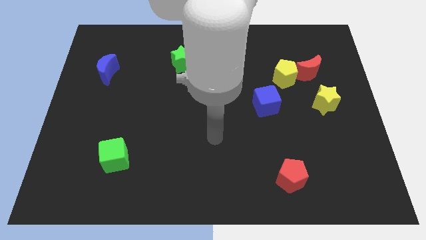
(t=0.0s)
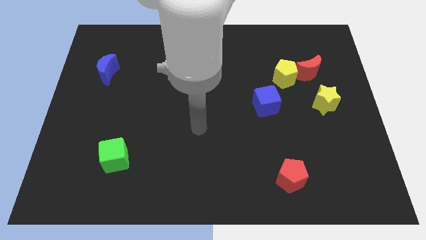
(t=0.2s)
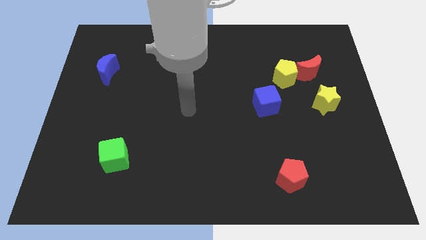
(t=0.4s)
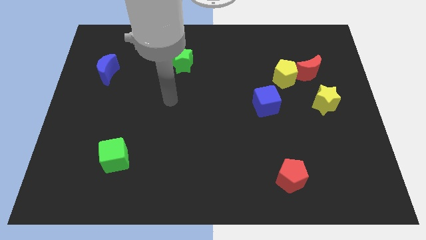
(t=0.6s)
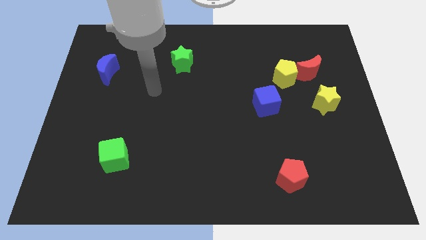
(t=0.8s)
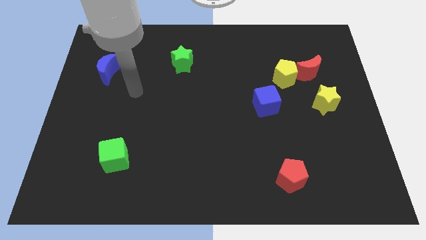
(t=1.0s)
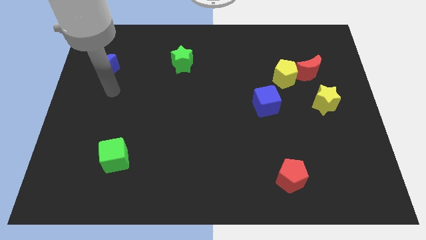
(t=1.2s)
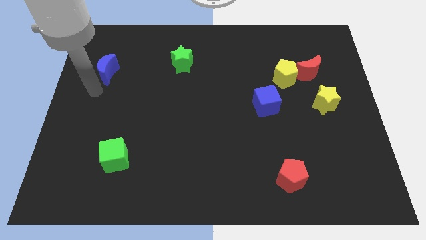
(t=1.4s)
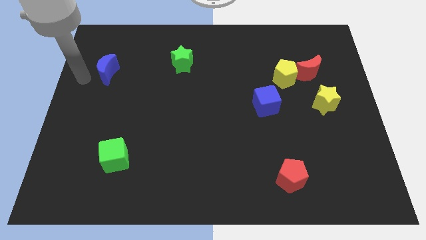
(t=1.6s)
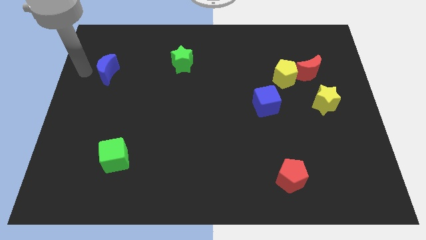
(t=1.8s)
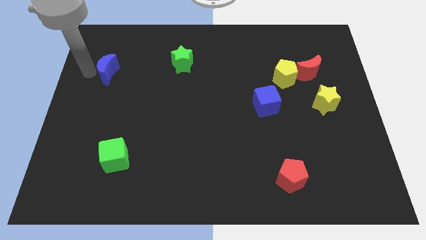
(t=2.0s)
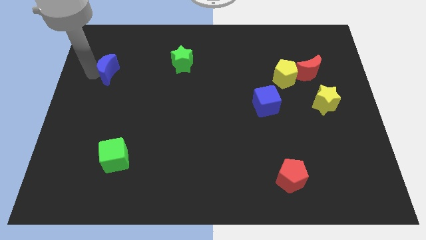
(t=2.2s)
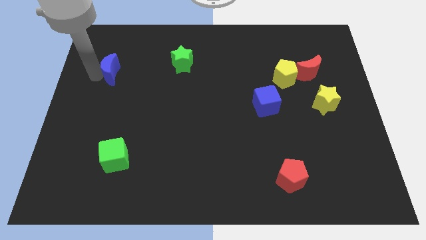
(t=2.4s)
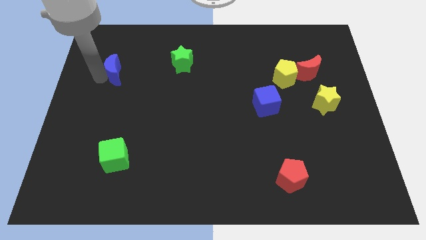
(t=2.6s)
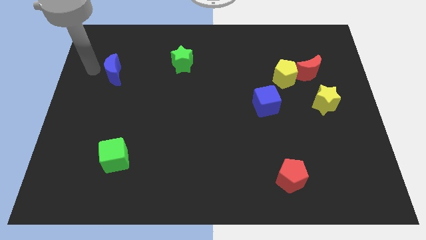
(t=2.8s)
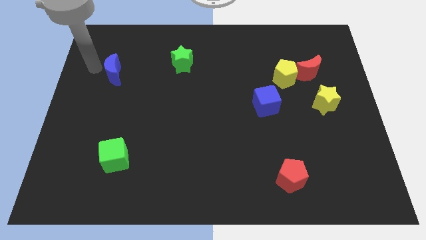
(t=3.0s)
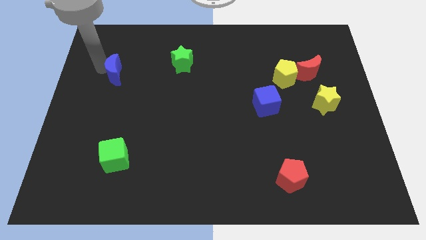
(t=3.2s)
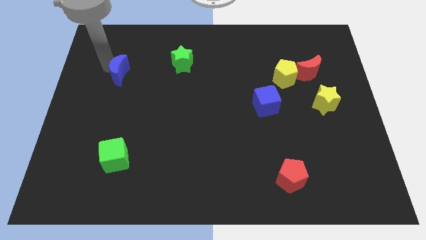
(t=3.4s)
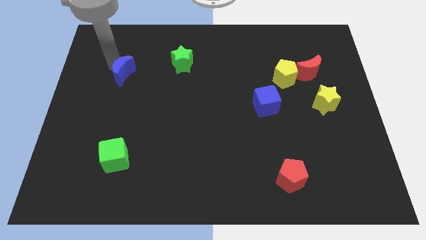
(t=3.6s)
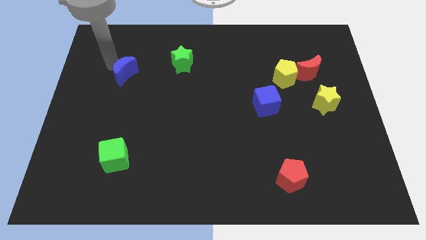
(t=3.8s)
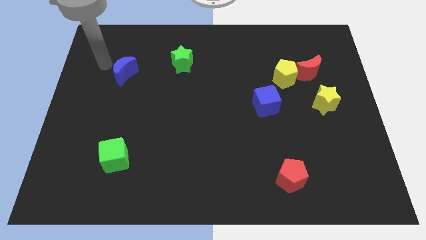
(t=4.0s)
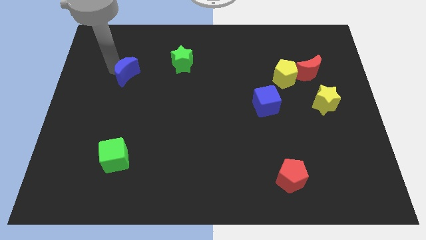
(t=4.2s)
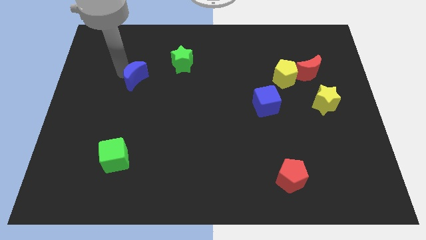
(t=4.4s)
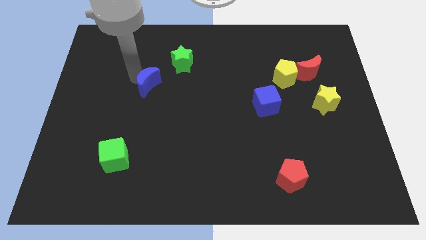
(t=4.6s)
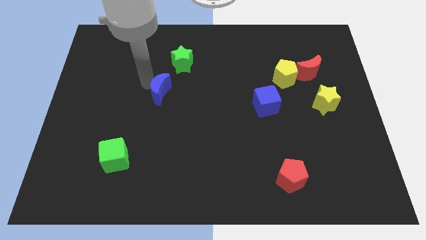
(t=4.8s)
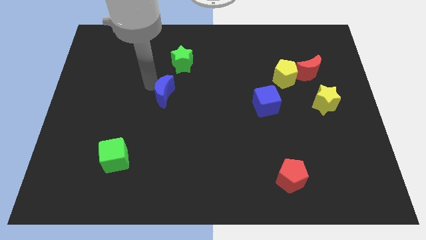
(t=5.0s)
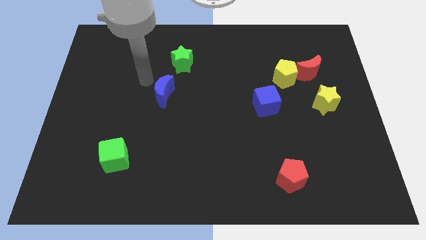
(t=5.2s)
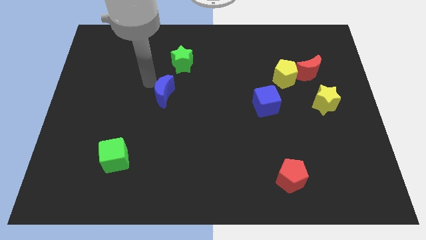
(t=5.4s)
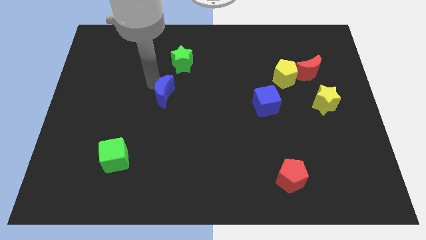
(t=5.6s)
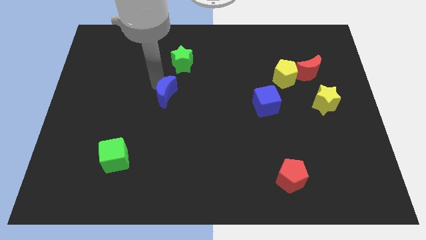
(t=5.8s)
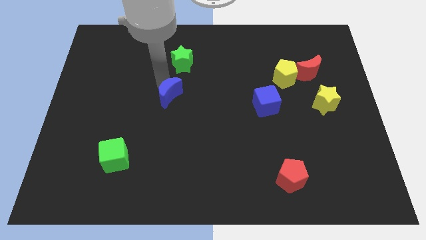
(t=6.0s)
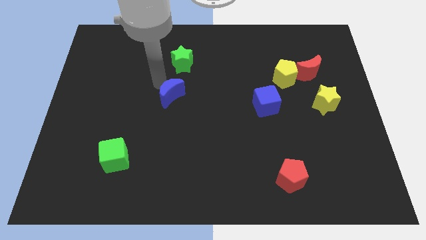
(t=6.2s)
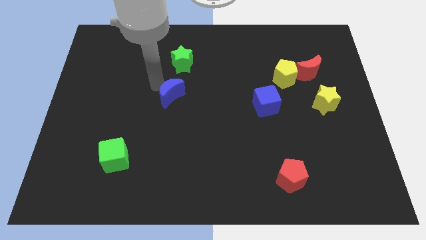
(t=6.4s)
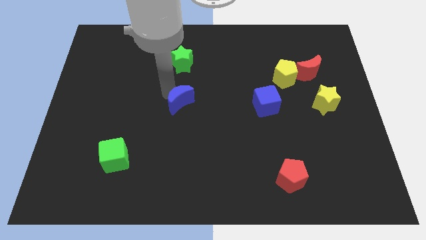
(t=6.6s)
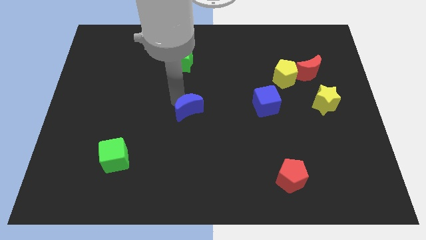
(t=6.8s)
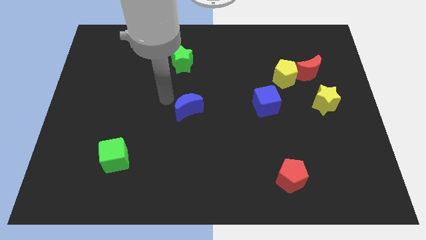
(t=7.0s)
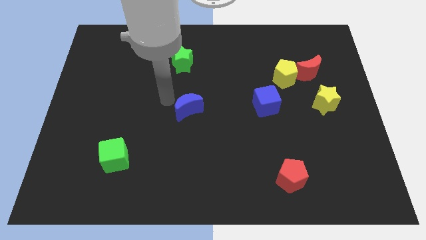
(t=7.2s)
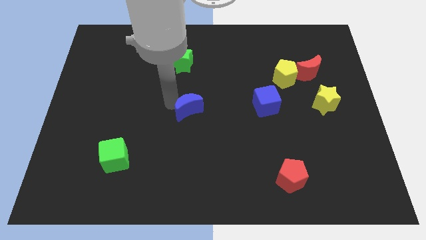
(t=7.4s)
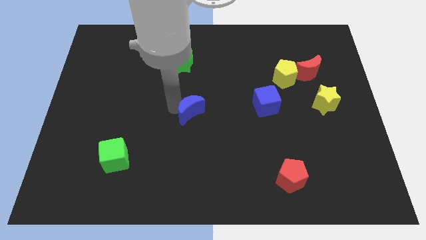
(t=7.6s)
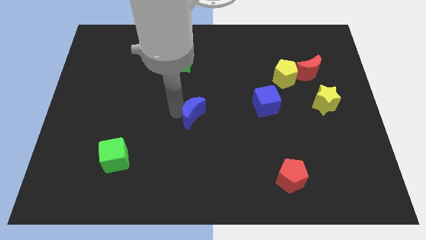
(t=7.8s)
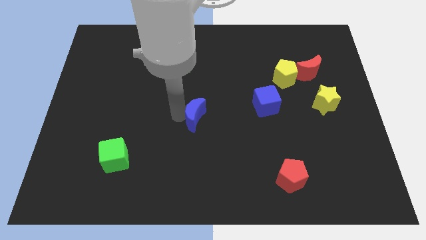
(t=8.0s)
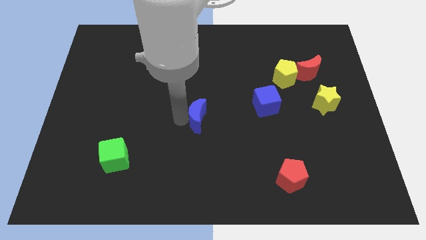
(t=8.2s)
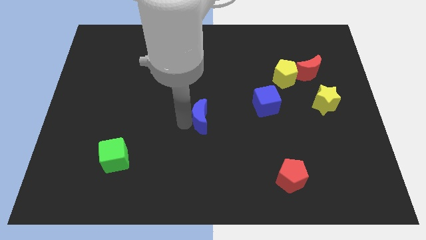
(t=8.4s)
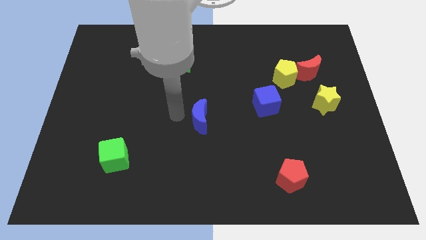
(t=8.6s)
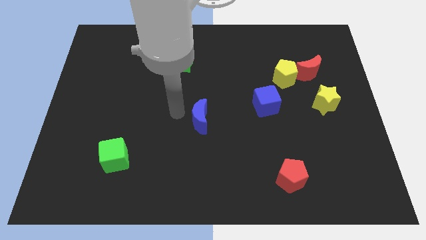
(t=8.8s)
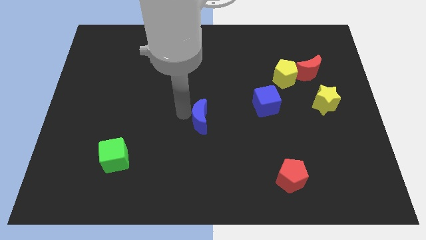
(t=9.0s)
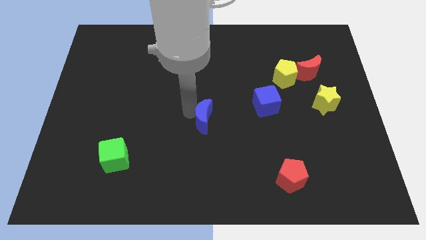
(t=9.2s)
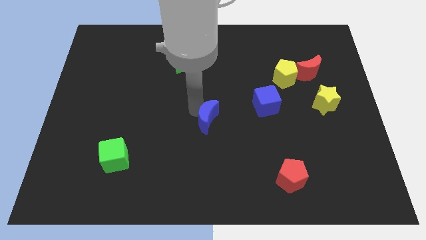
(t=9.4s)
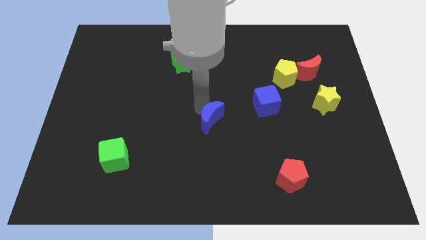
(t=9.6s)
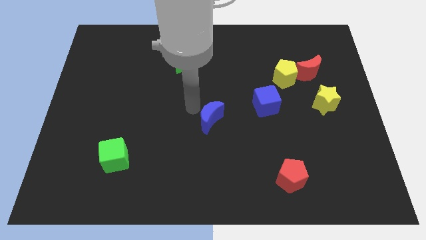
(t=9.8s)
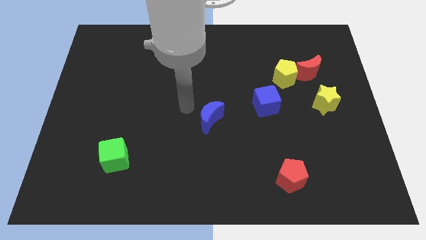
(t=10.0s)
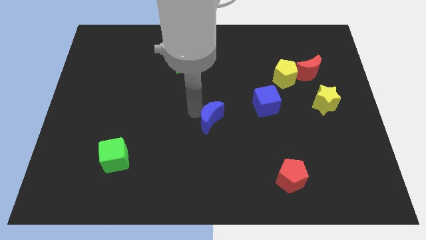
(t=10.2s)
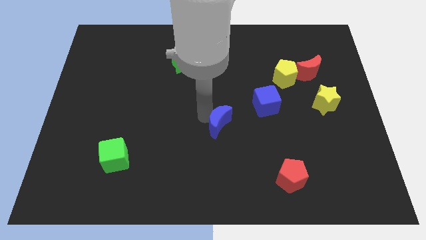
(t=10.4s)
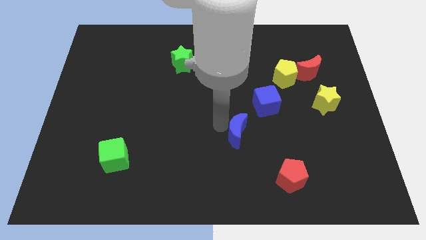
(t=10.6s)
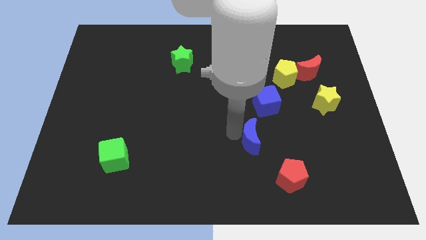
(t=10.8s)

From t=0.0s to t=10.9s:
put the blue moon to the bottom side of the blue cube

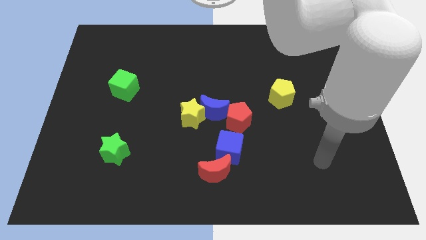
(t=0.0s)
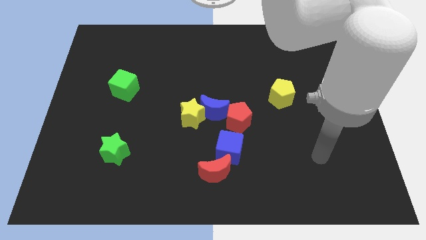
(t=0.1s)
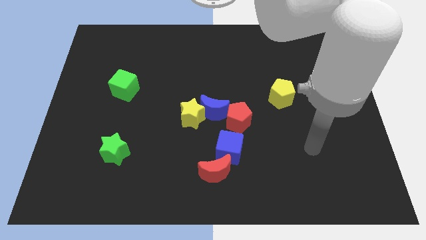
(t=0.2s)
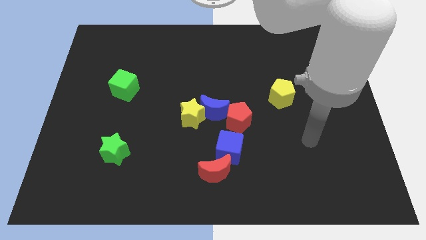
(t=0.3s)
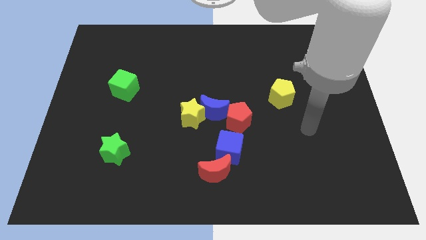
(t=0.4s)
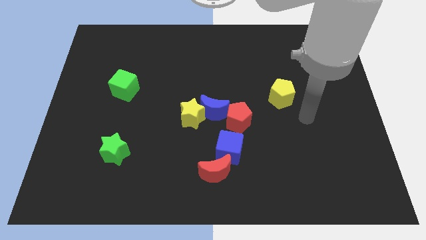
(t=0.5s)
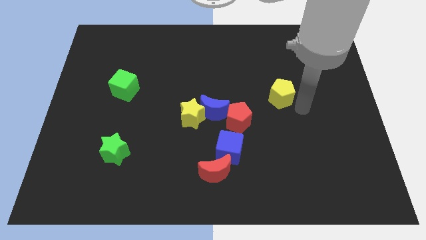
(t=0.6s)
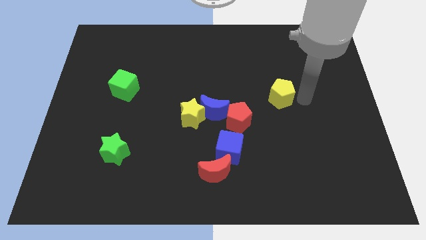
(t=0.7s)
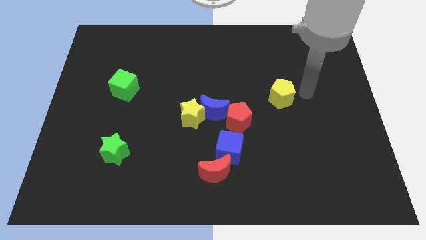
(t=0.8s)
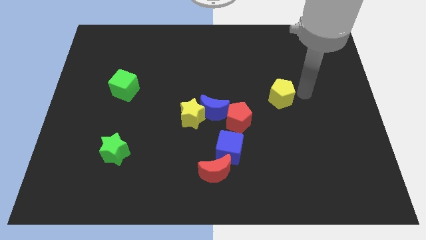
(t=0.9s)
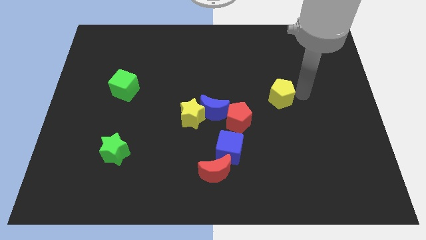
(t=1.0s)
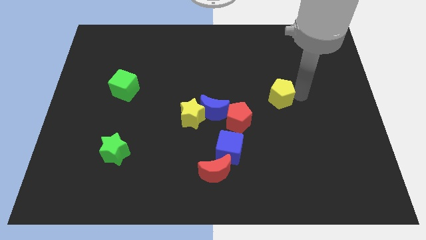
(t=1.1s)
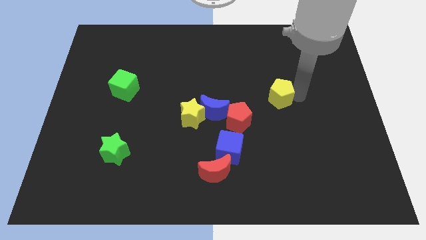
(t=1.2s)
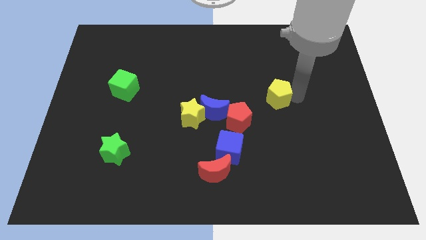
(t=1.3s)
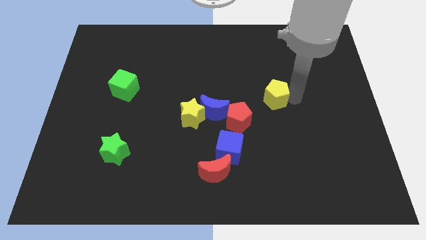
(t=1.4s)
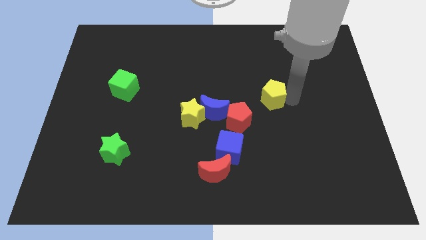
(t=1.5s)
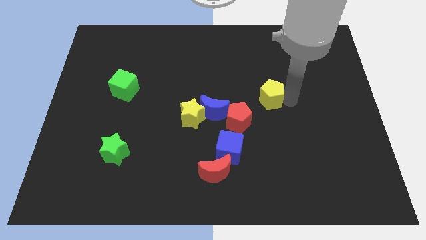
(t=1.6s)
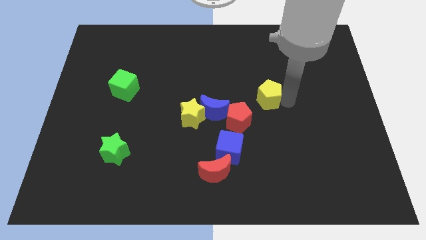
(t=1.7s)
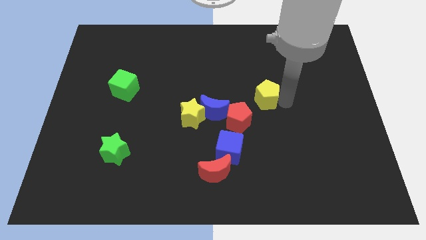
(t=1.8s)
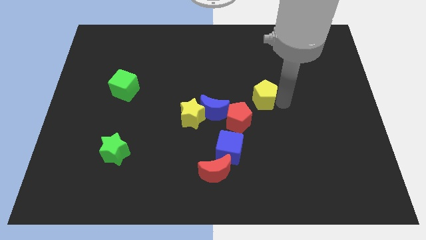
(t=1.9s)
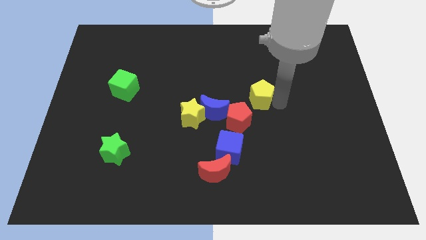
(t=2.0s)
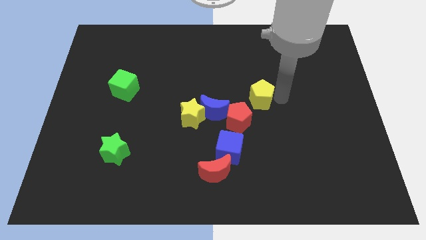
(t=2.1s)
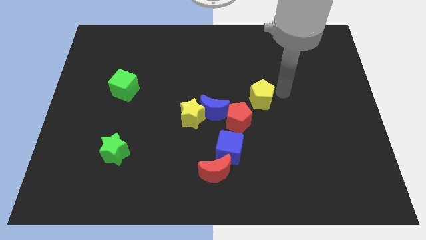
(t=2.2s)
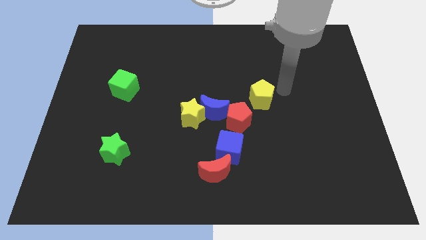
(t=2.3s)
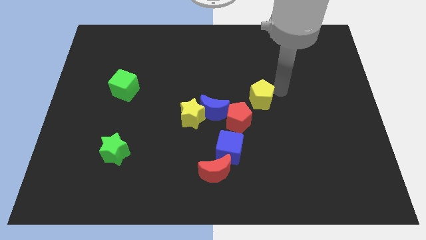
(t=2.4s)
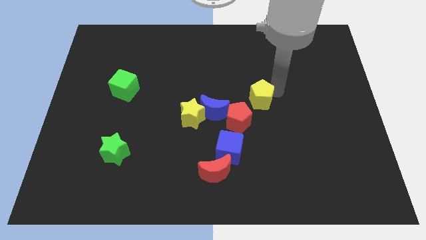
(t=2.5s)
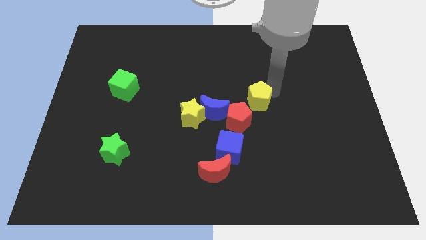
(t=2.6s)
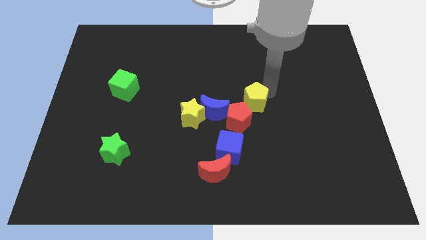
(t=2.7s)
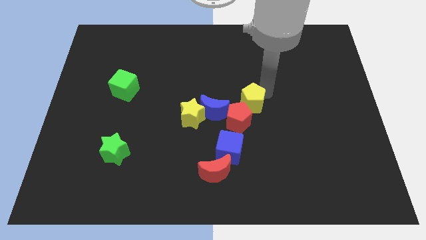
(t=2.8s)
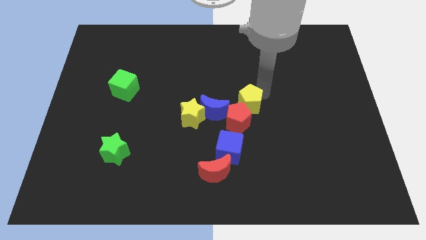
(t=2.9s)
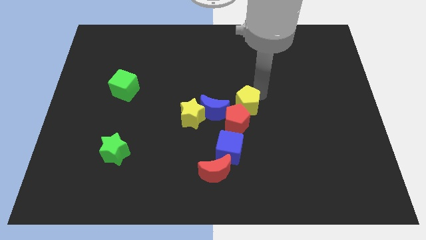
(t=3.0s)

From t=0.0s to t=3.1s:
put the yellow pentagon to the top side of the blue cube
